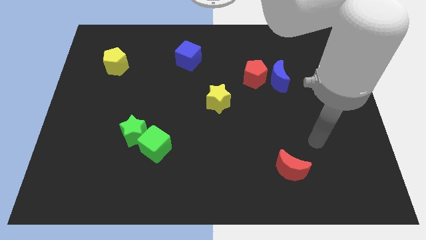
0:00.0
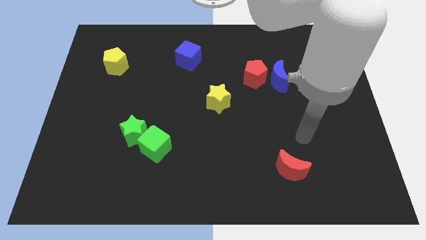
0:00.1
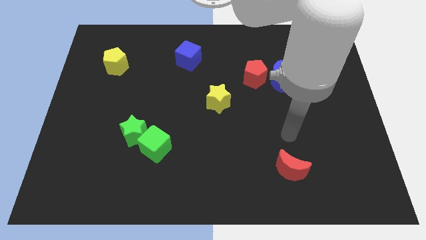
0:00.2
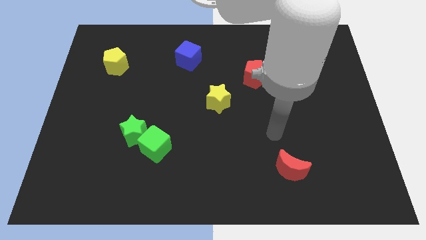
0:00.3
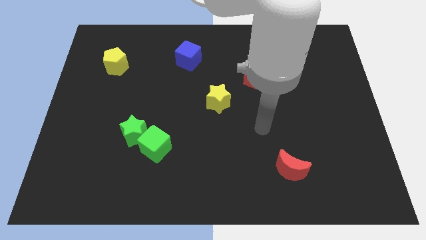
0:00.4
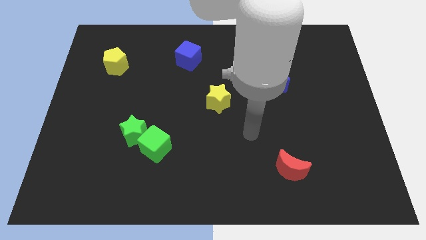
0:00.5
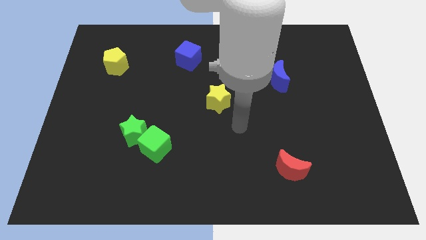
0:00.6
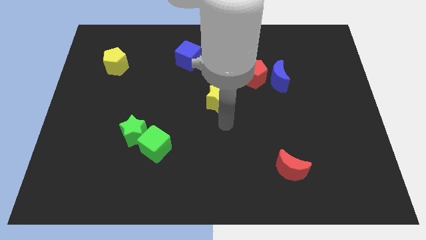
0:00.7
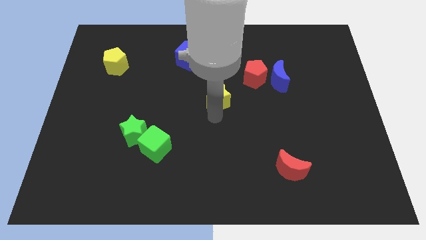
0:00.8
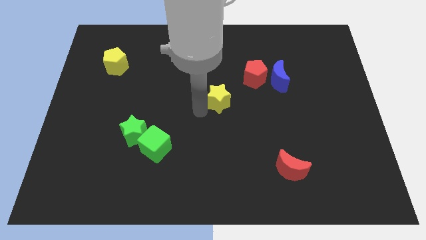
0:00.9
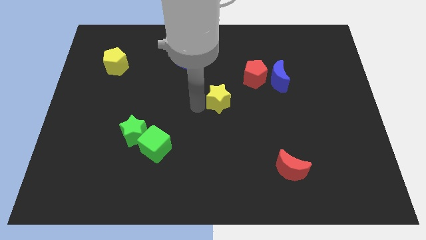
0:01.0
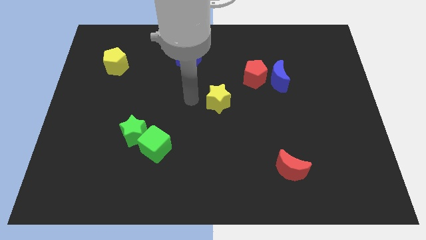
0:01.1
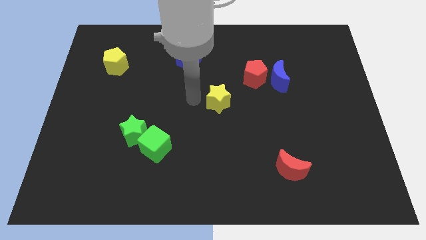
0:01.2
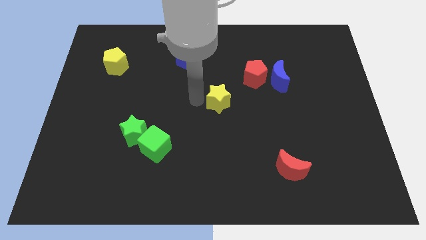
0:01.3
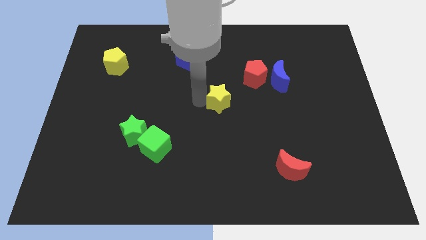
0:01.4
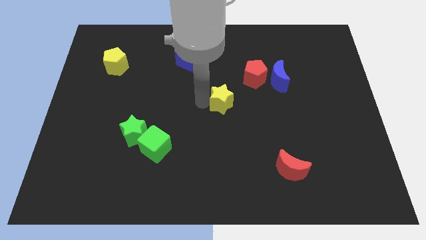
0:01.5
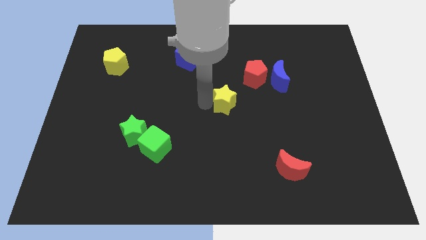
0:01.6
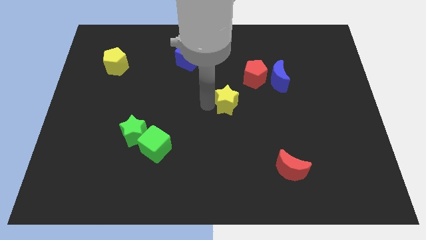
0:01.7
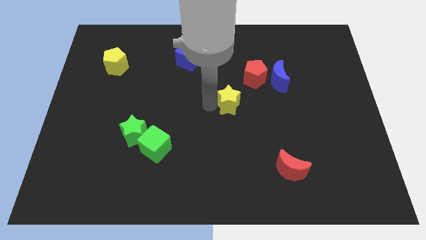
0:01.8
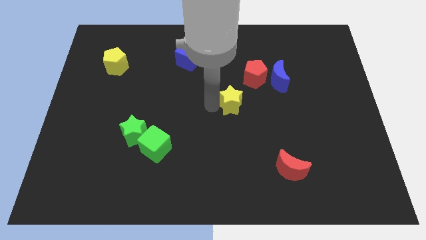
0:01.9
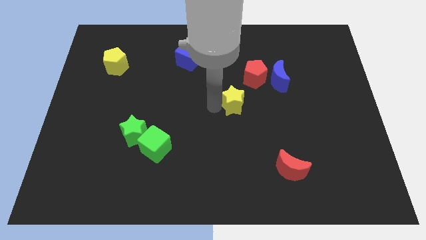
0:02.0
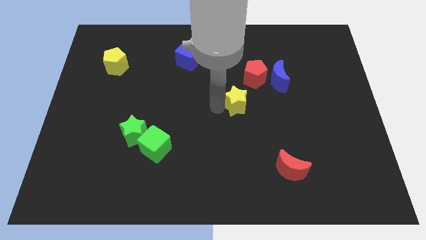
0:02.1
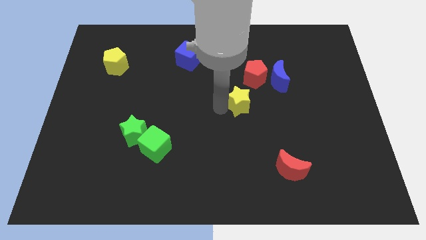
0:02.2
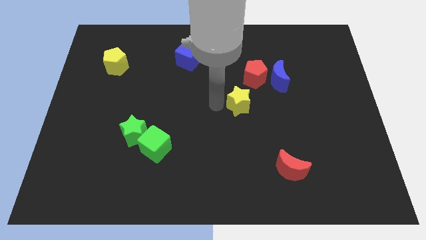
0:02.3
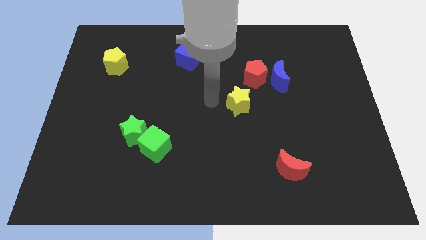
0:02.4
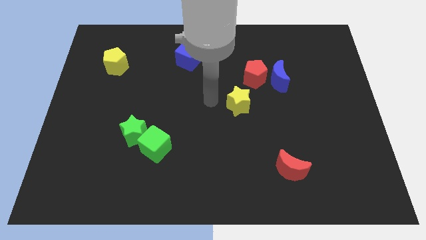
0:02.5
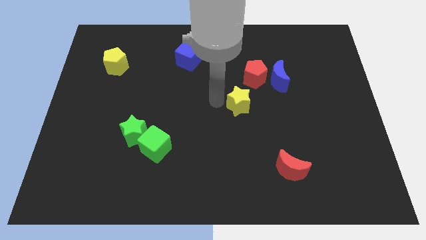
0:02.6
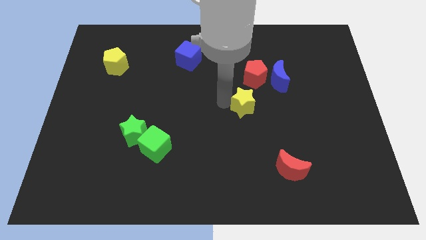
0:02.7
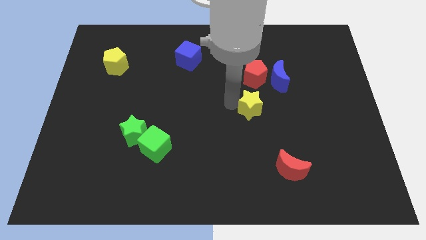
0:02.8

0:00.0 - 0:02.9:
slightly move the yellow star to the right

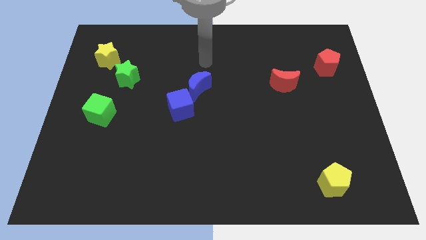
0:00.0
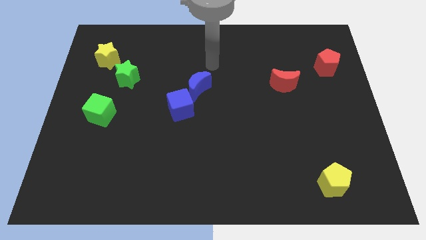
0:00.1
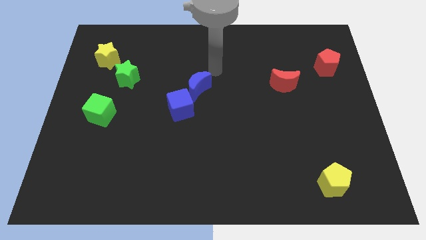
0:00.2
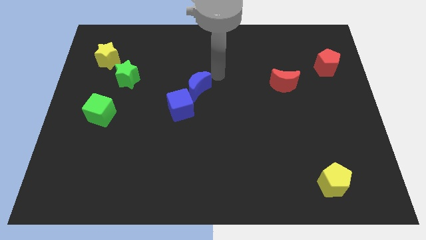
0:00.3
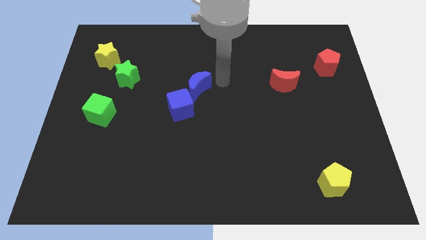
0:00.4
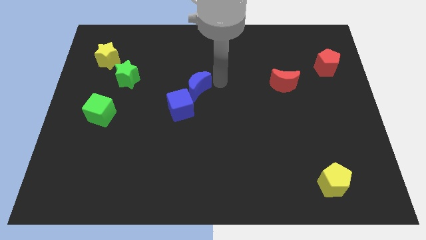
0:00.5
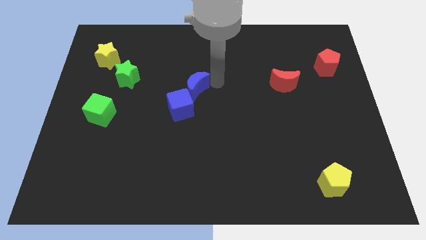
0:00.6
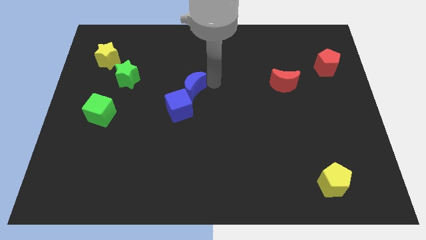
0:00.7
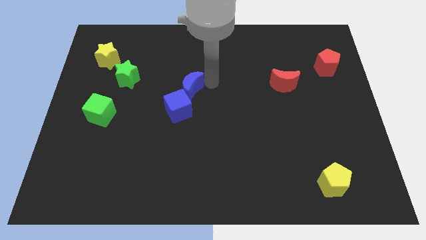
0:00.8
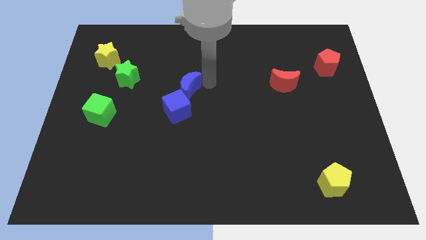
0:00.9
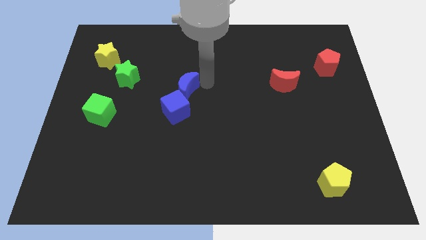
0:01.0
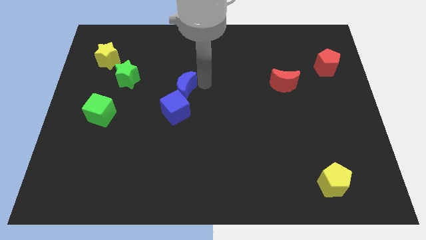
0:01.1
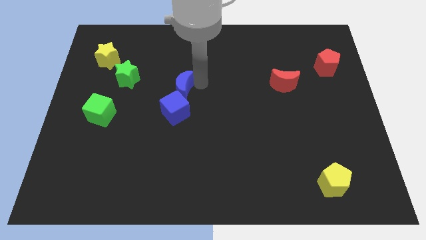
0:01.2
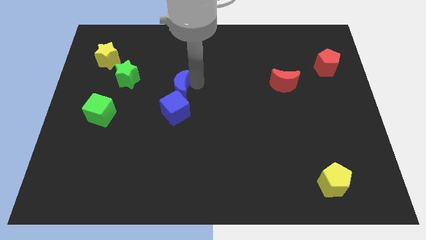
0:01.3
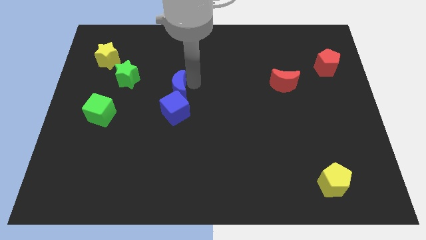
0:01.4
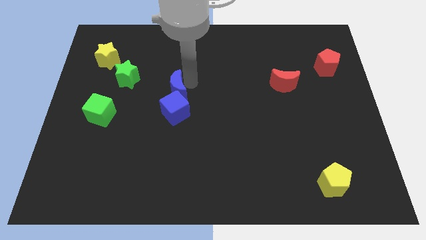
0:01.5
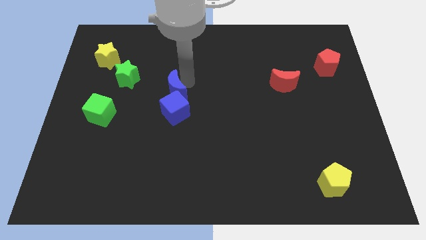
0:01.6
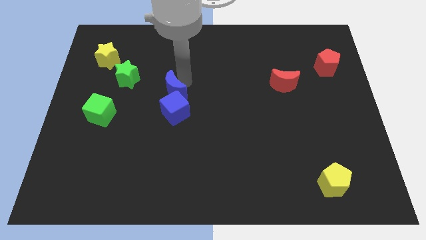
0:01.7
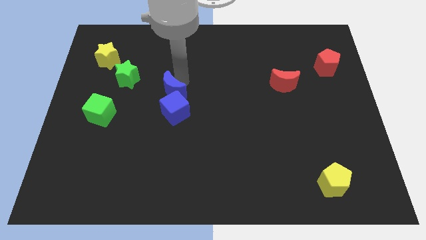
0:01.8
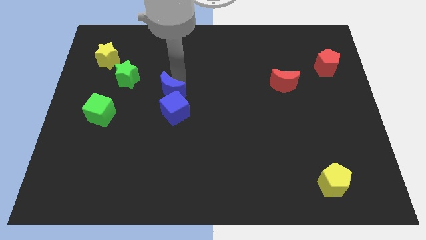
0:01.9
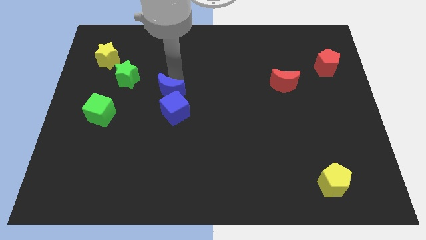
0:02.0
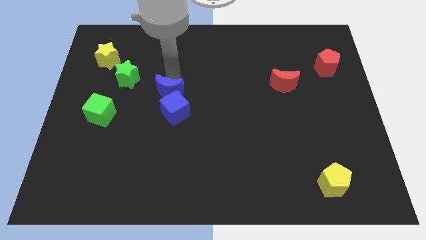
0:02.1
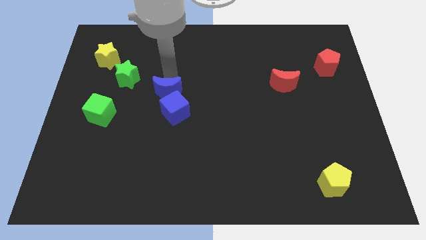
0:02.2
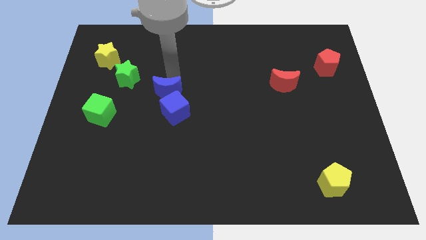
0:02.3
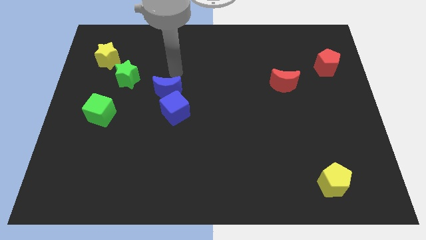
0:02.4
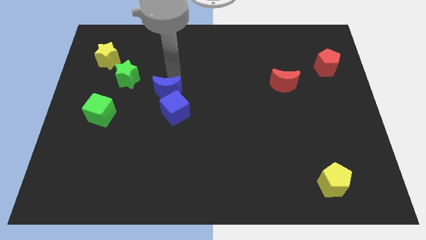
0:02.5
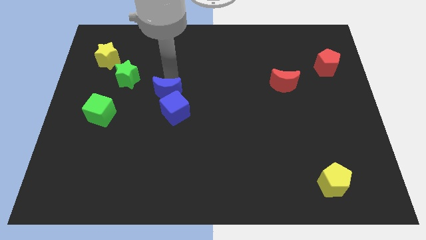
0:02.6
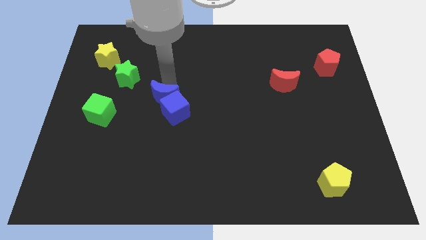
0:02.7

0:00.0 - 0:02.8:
slightly push the blue moon downwards and to the left

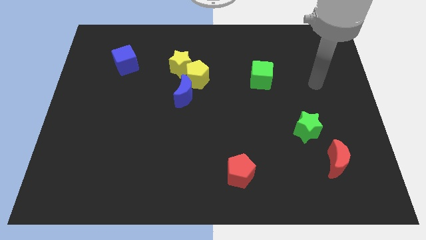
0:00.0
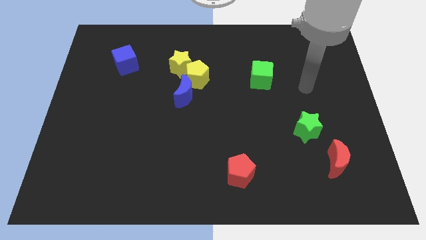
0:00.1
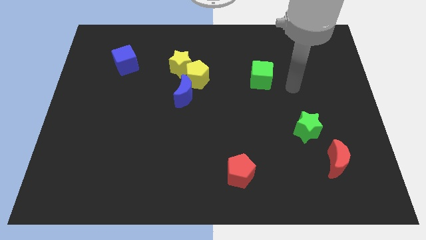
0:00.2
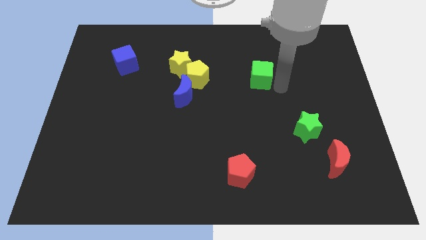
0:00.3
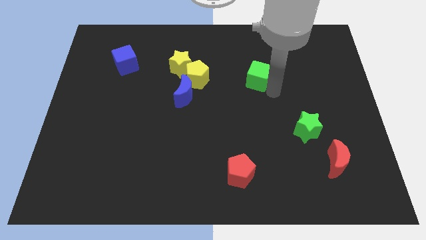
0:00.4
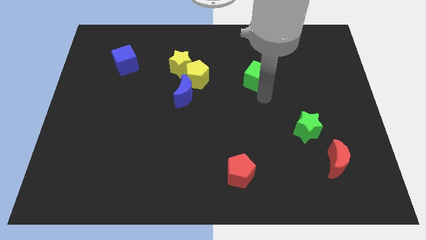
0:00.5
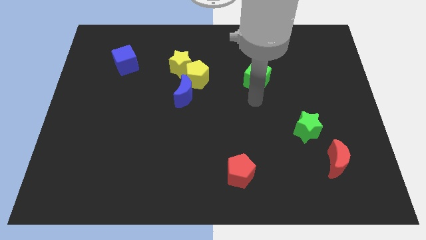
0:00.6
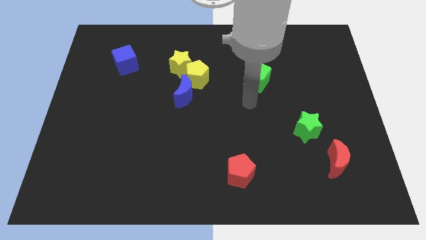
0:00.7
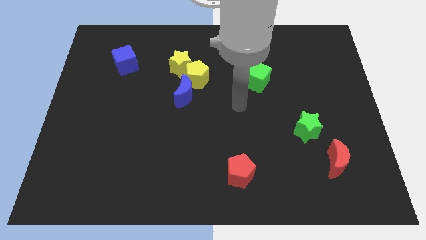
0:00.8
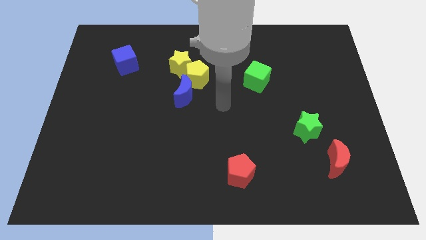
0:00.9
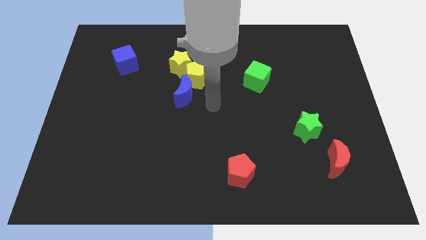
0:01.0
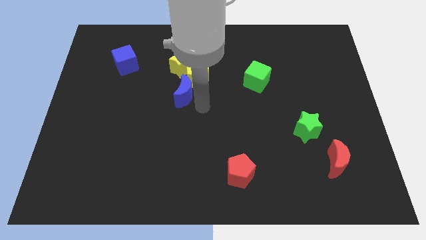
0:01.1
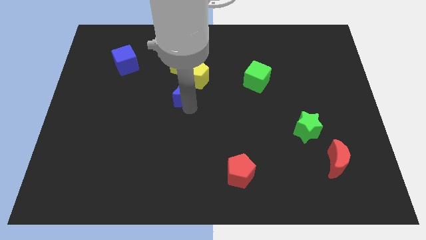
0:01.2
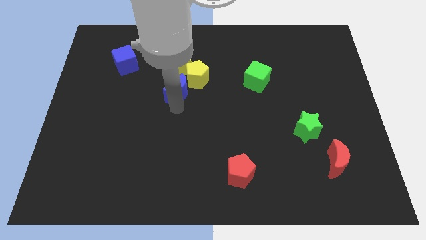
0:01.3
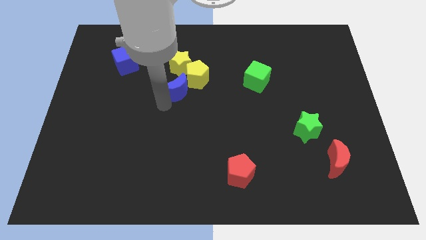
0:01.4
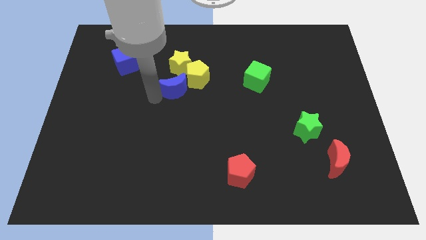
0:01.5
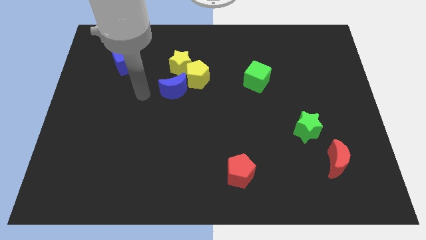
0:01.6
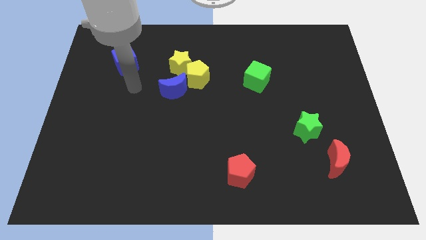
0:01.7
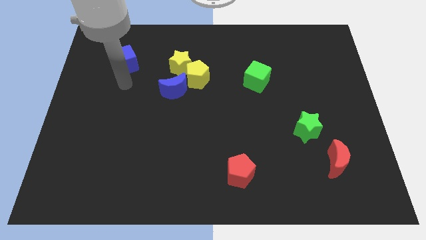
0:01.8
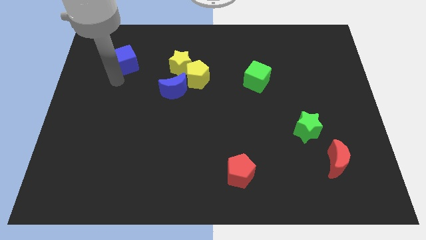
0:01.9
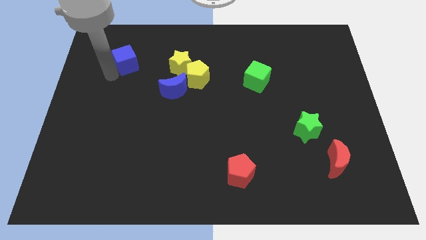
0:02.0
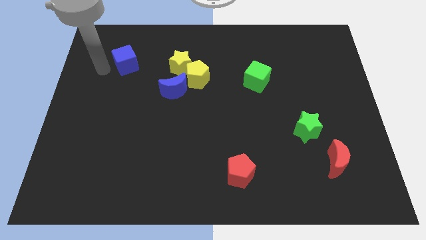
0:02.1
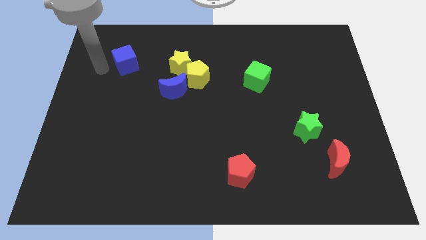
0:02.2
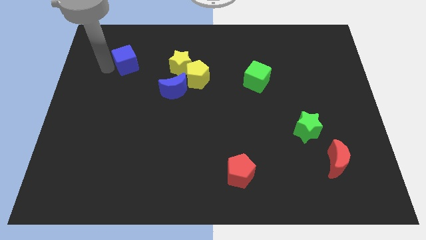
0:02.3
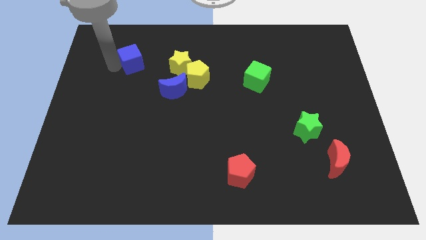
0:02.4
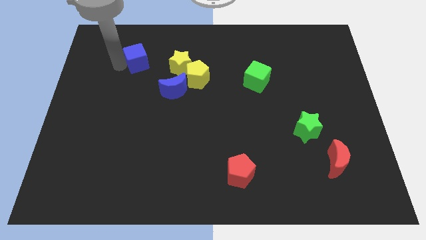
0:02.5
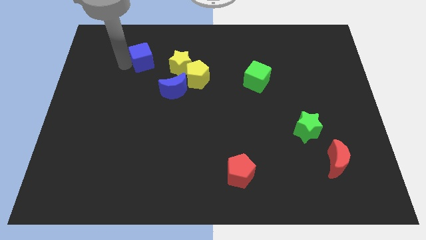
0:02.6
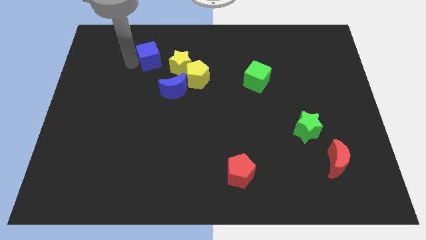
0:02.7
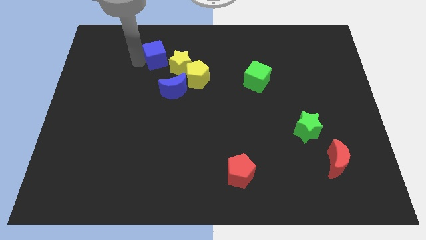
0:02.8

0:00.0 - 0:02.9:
slightly push the blue cube right
